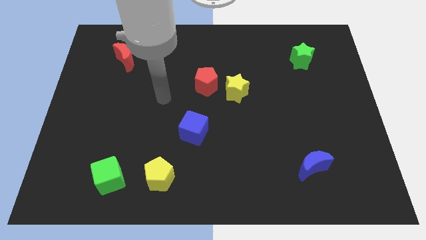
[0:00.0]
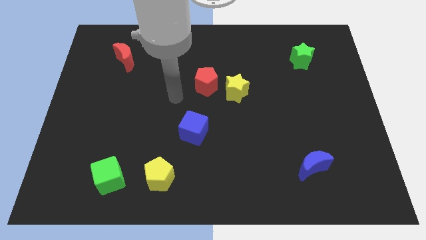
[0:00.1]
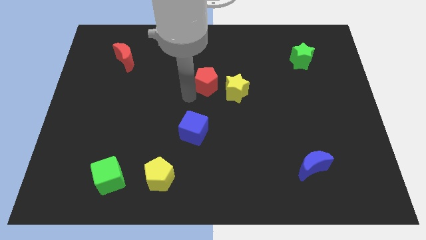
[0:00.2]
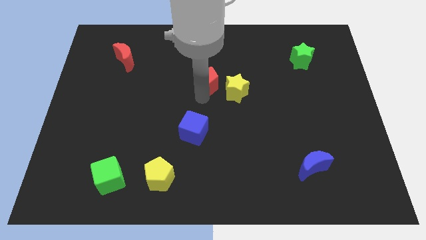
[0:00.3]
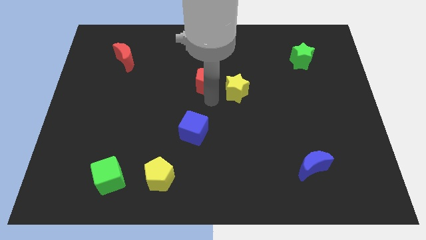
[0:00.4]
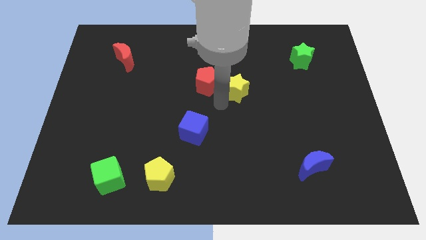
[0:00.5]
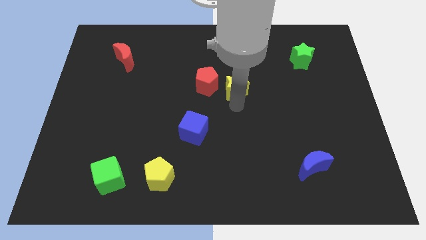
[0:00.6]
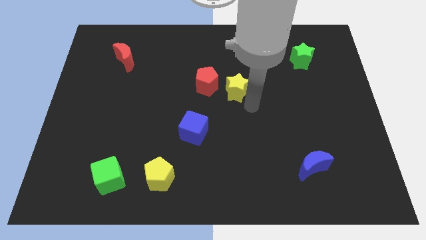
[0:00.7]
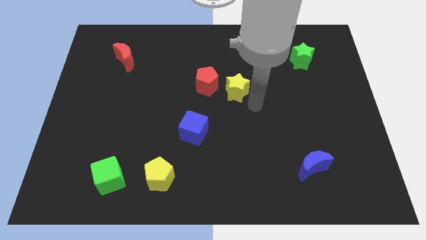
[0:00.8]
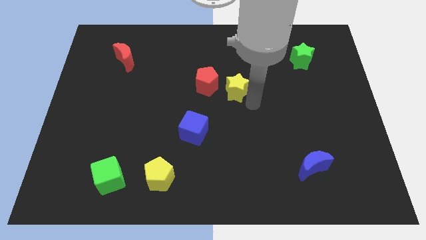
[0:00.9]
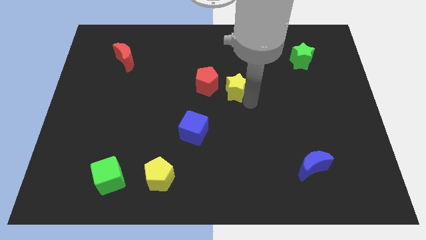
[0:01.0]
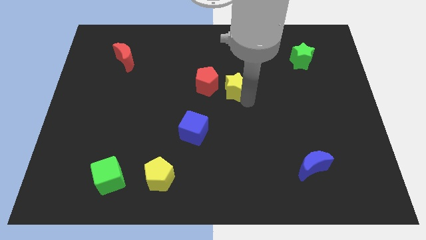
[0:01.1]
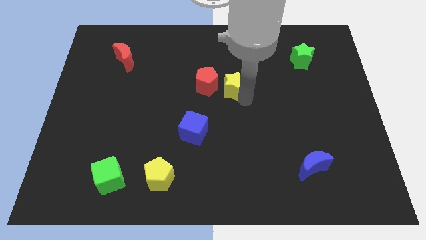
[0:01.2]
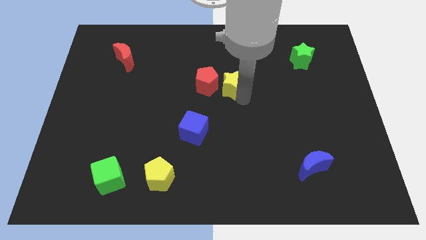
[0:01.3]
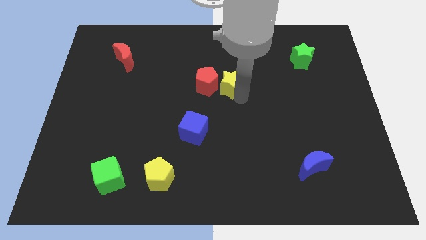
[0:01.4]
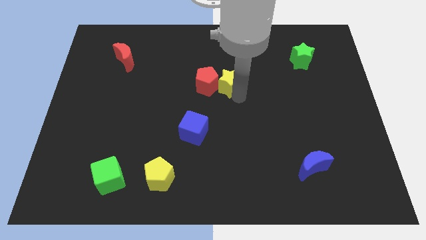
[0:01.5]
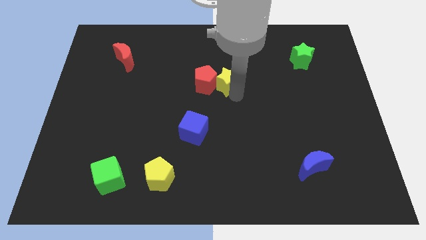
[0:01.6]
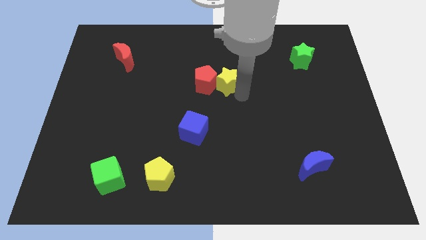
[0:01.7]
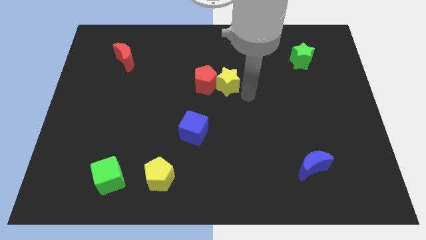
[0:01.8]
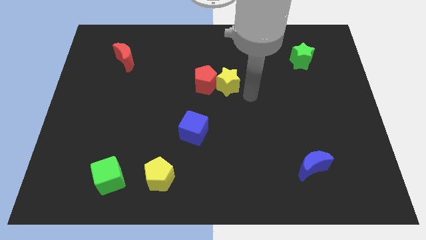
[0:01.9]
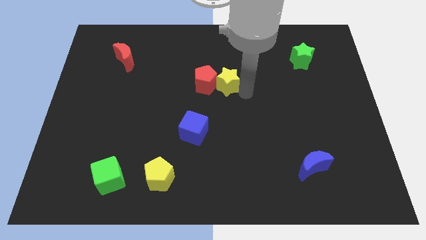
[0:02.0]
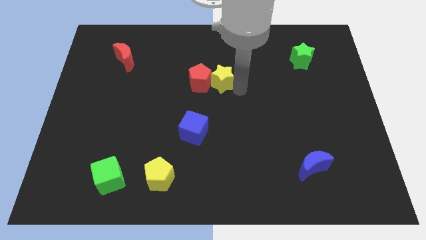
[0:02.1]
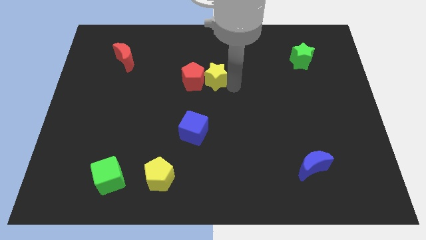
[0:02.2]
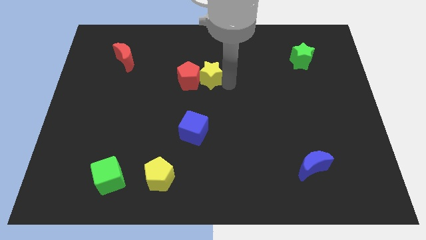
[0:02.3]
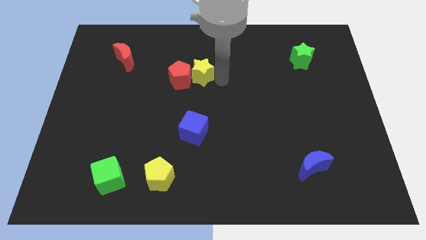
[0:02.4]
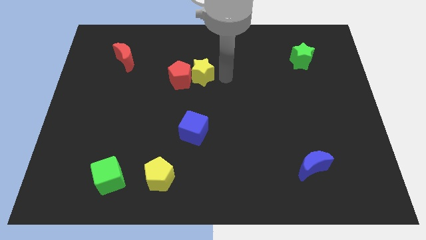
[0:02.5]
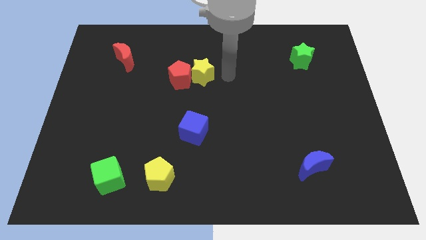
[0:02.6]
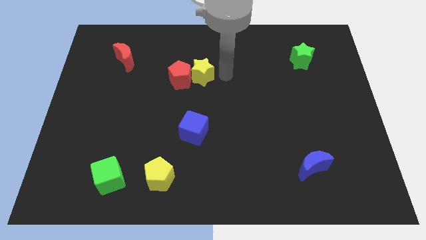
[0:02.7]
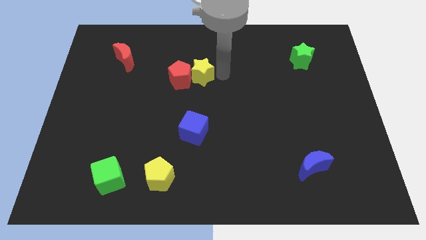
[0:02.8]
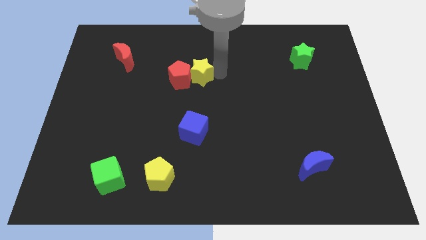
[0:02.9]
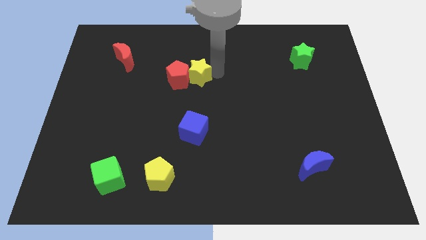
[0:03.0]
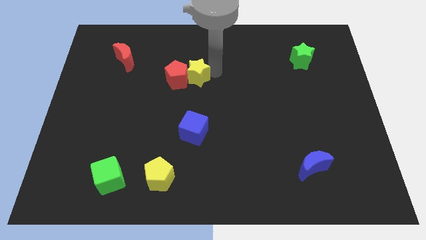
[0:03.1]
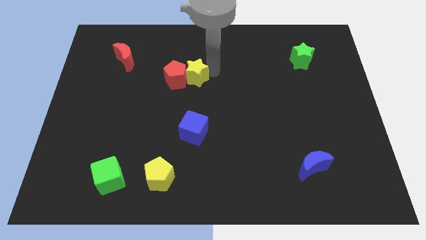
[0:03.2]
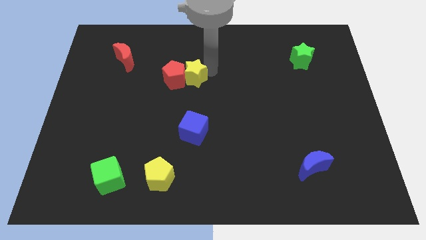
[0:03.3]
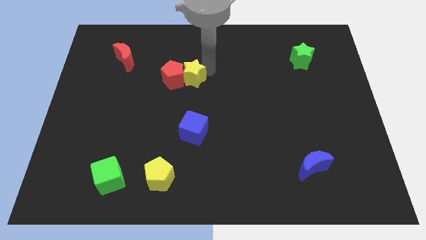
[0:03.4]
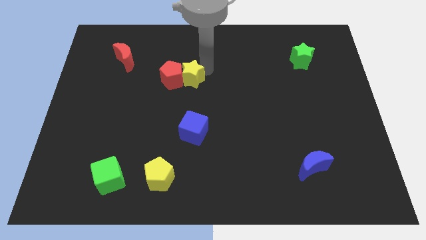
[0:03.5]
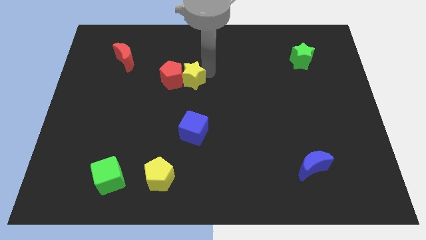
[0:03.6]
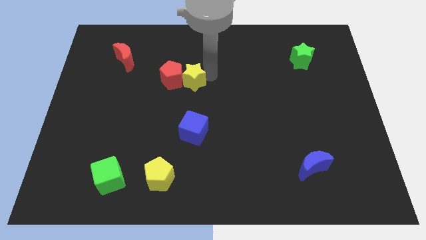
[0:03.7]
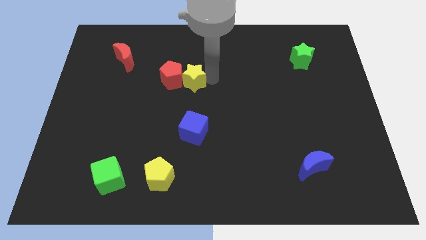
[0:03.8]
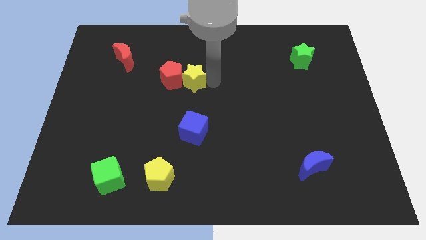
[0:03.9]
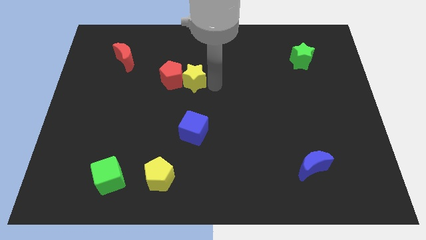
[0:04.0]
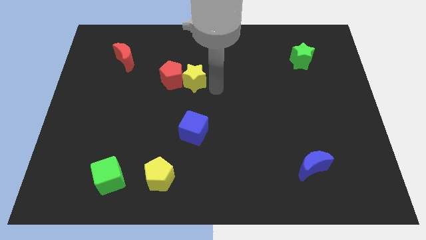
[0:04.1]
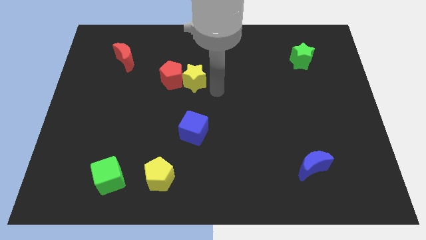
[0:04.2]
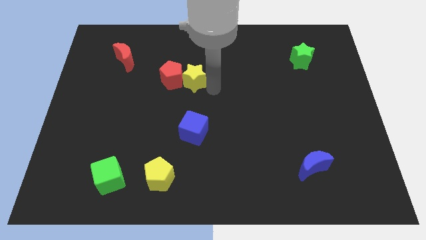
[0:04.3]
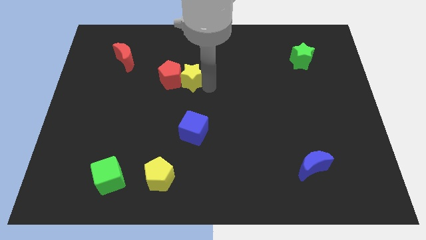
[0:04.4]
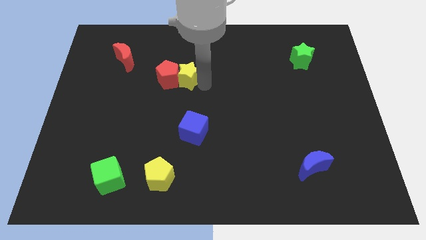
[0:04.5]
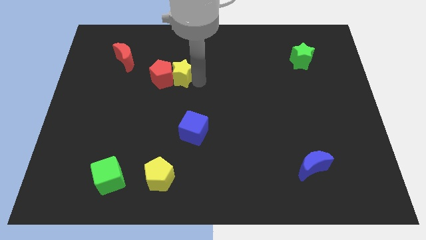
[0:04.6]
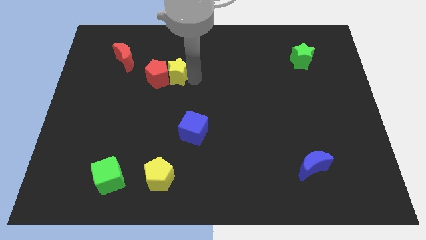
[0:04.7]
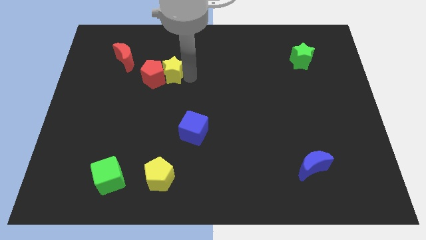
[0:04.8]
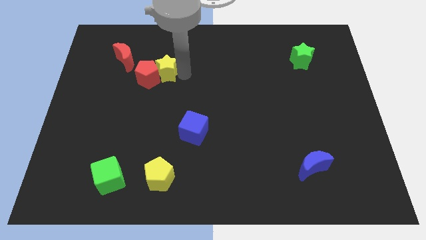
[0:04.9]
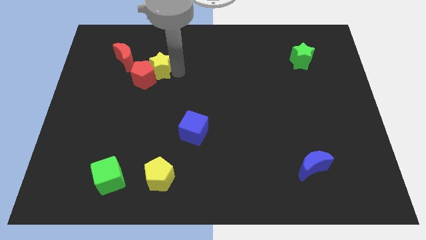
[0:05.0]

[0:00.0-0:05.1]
push the yellow star diagonally down and to the right of the red moon

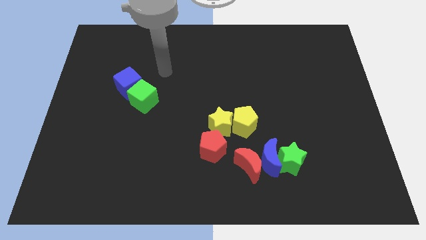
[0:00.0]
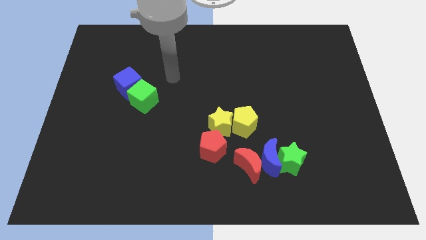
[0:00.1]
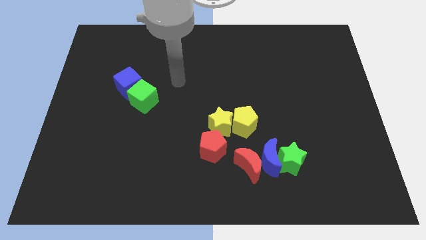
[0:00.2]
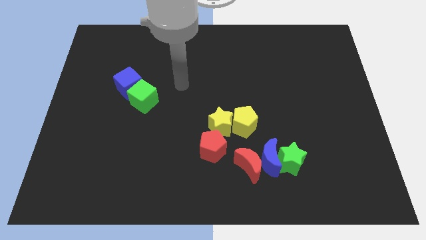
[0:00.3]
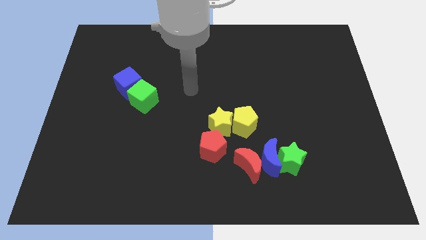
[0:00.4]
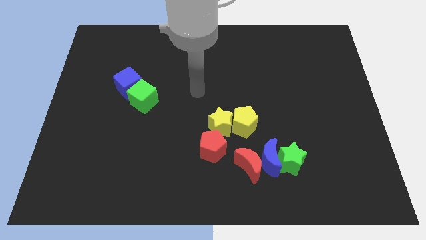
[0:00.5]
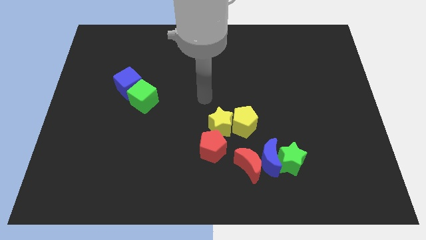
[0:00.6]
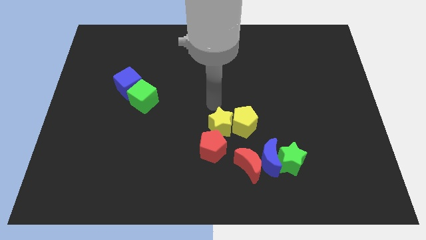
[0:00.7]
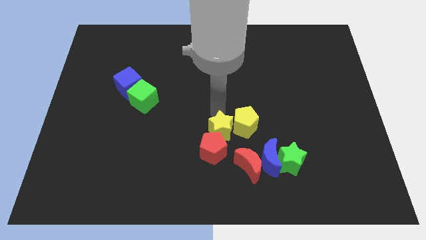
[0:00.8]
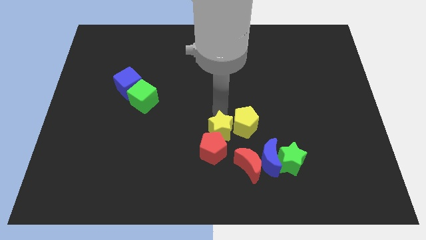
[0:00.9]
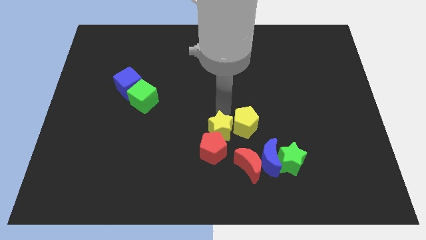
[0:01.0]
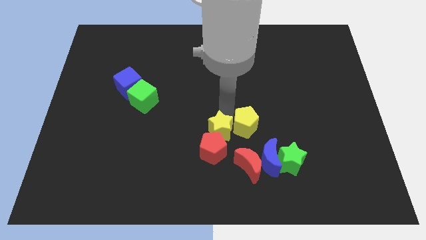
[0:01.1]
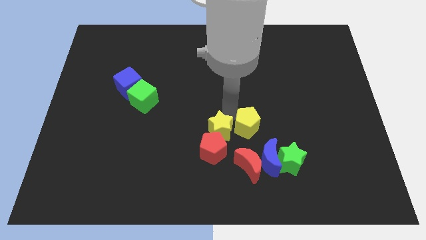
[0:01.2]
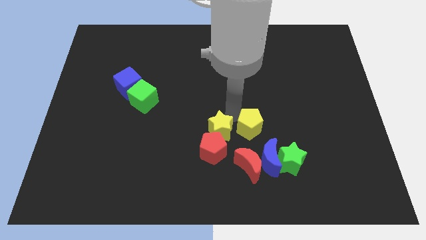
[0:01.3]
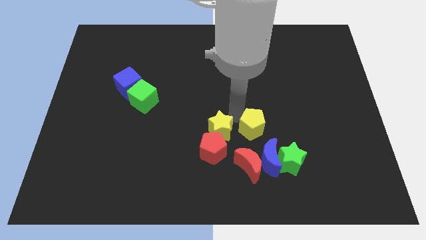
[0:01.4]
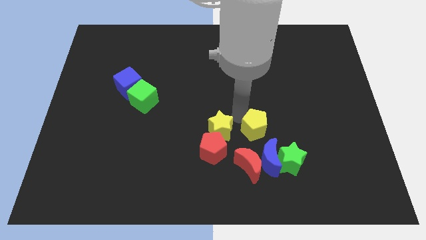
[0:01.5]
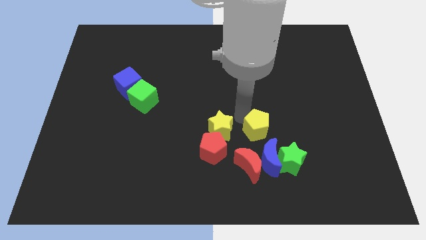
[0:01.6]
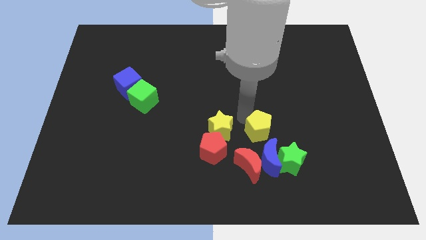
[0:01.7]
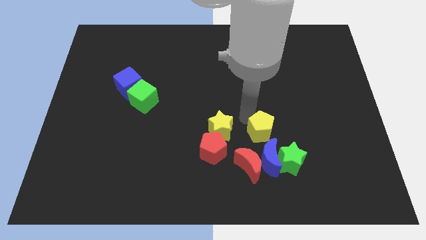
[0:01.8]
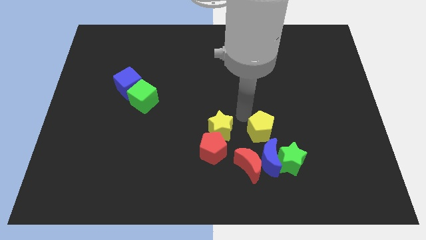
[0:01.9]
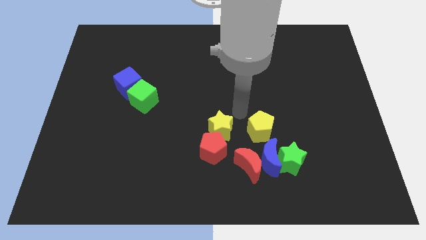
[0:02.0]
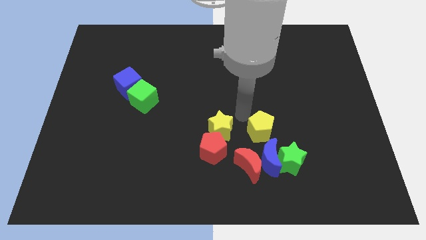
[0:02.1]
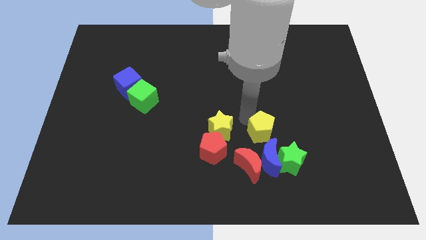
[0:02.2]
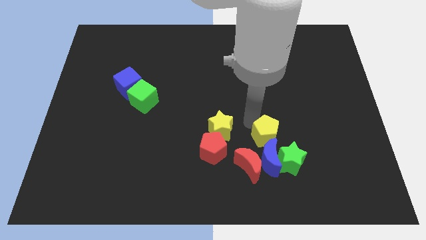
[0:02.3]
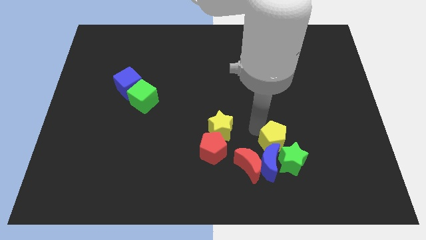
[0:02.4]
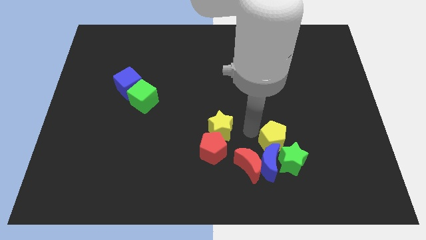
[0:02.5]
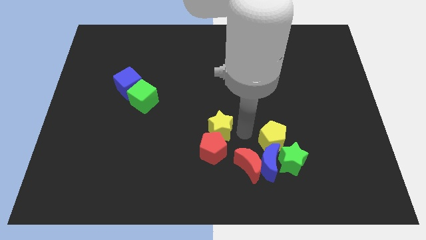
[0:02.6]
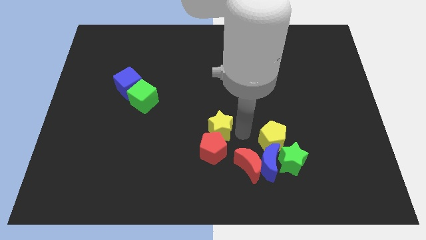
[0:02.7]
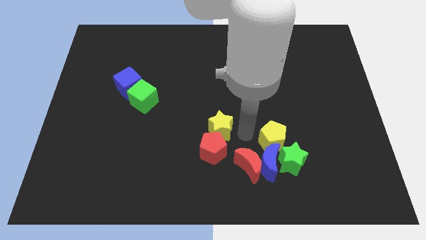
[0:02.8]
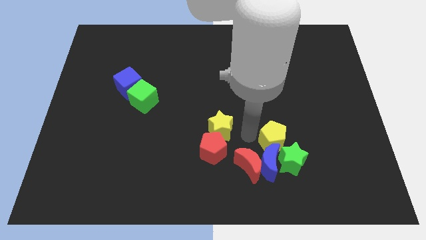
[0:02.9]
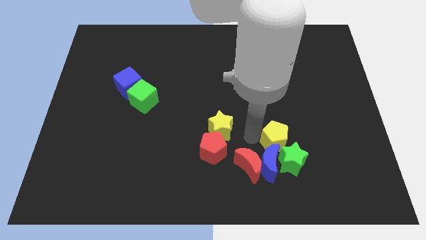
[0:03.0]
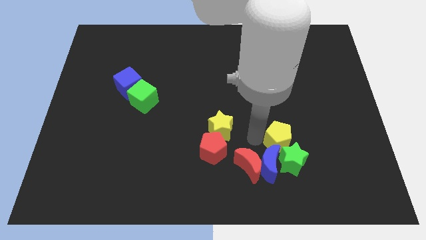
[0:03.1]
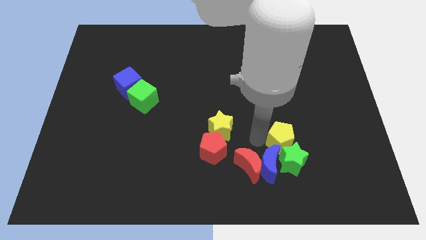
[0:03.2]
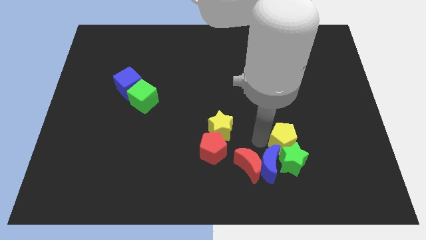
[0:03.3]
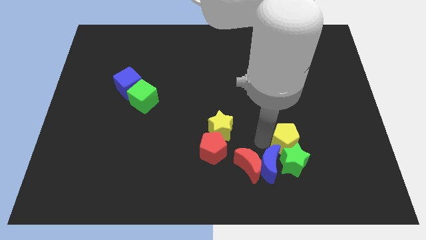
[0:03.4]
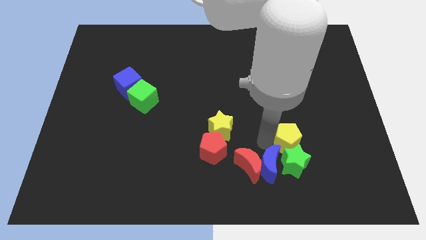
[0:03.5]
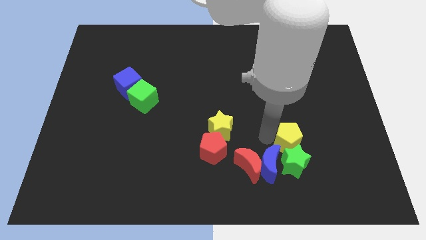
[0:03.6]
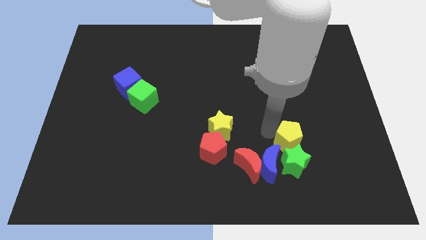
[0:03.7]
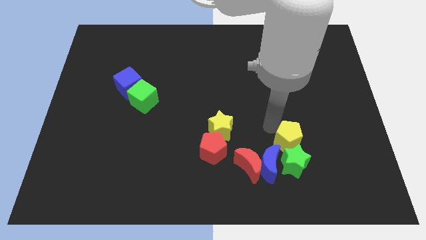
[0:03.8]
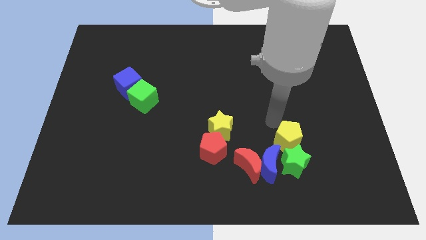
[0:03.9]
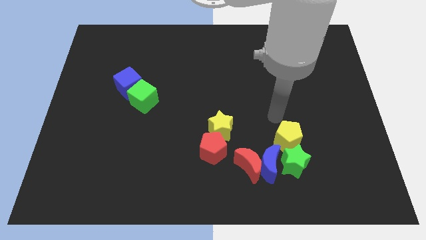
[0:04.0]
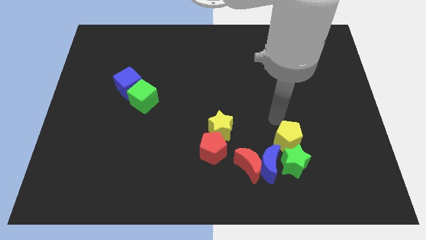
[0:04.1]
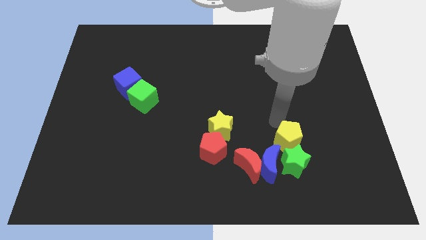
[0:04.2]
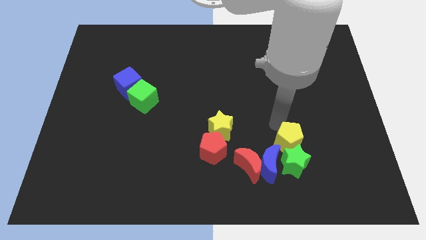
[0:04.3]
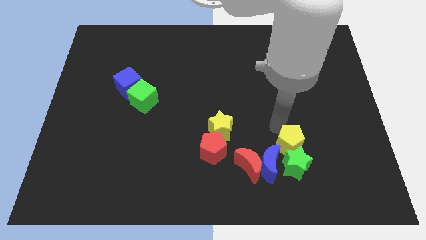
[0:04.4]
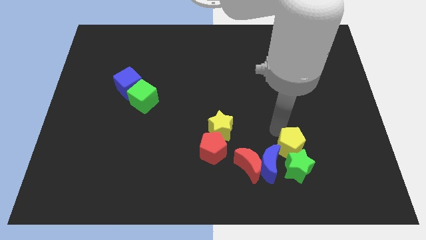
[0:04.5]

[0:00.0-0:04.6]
slide the yellow pentagon to the right side of the red moon
